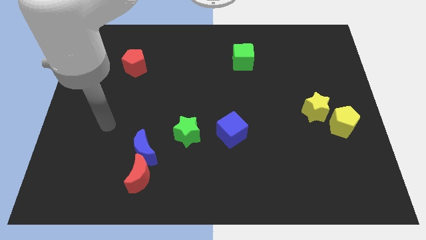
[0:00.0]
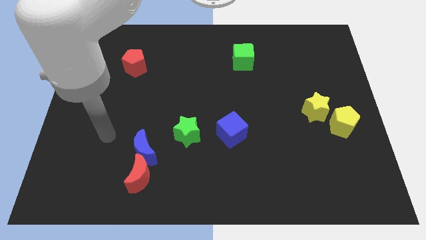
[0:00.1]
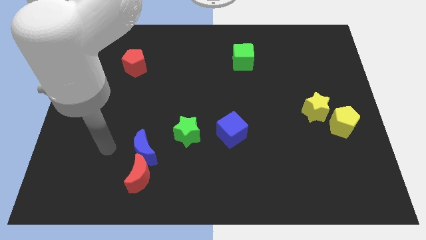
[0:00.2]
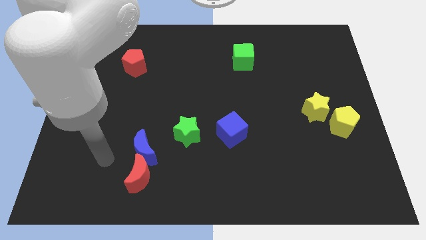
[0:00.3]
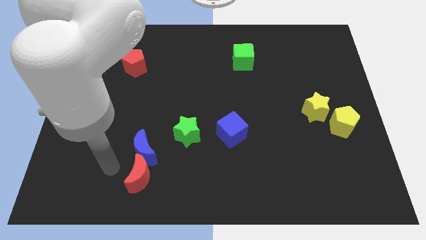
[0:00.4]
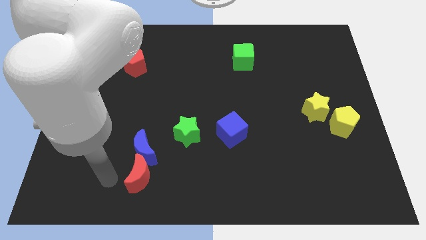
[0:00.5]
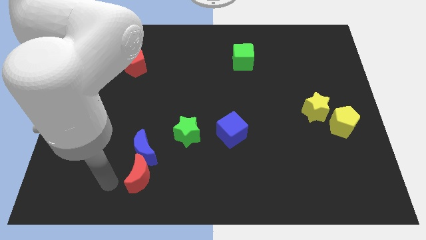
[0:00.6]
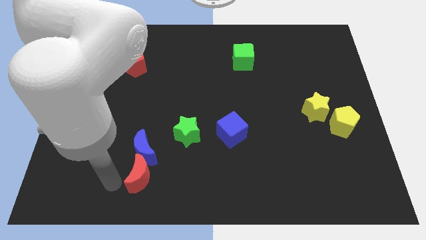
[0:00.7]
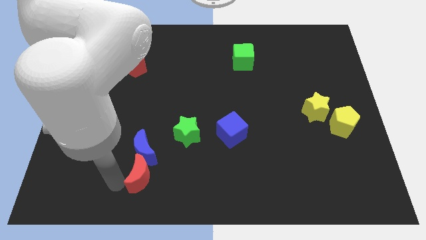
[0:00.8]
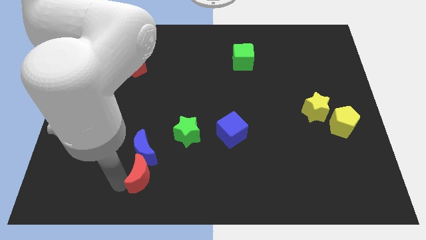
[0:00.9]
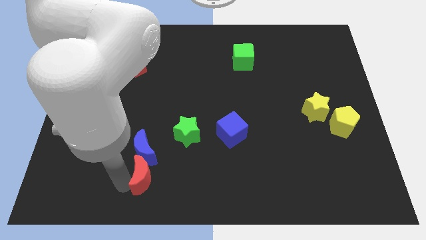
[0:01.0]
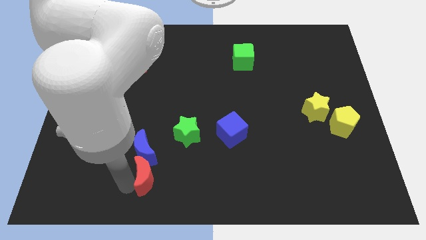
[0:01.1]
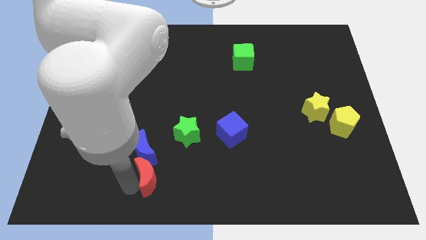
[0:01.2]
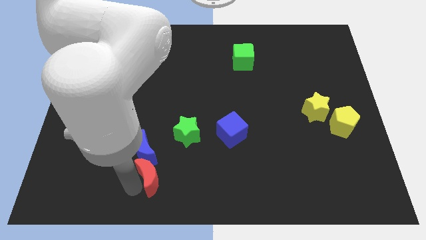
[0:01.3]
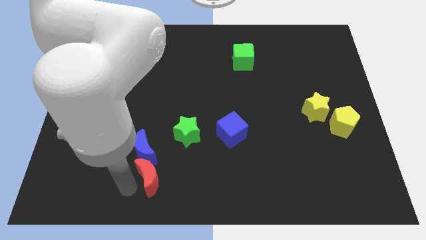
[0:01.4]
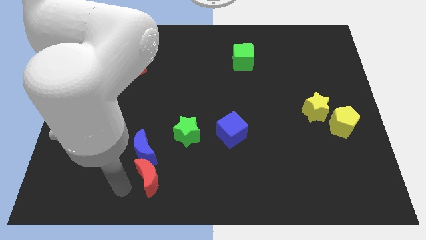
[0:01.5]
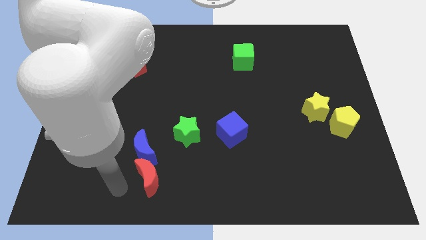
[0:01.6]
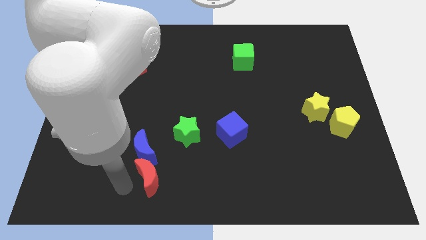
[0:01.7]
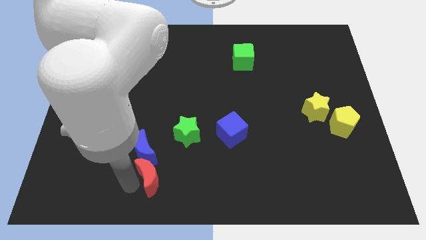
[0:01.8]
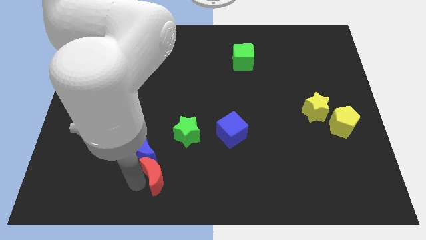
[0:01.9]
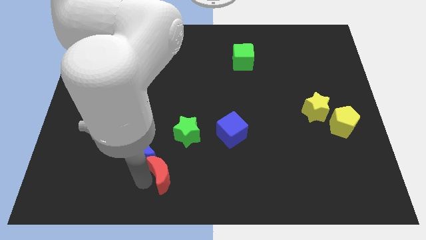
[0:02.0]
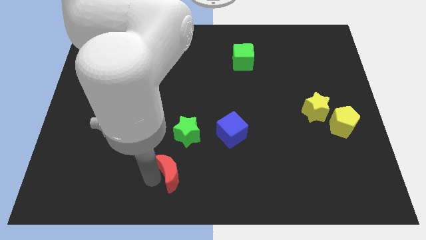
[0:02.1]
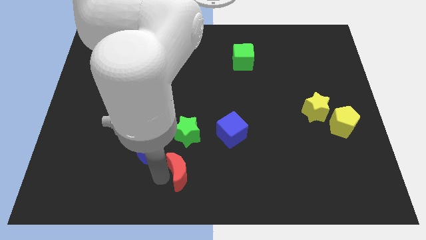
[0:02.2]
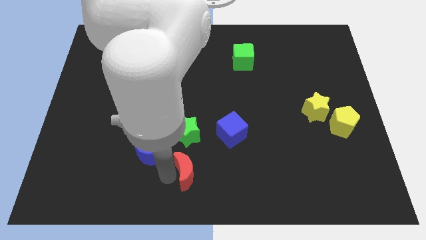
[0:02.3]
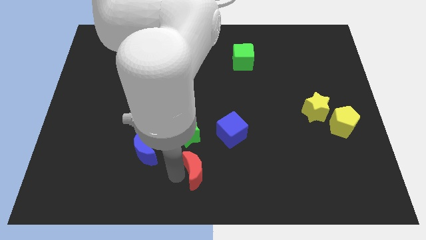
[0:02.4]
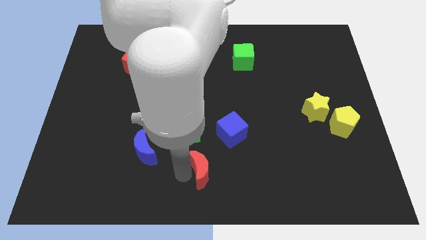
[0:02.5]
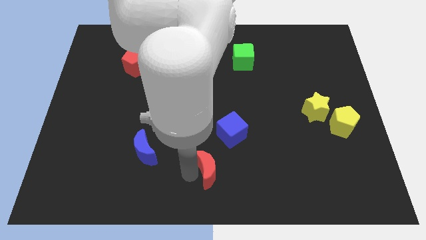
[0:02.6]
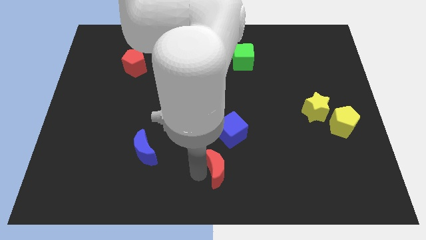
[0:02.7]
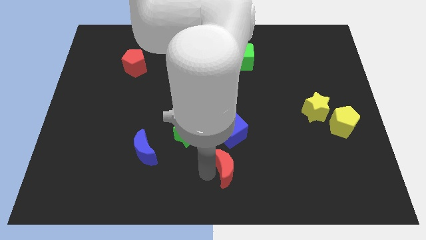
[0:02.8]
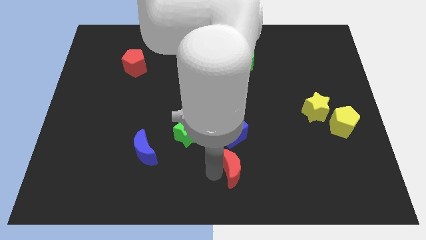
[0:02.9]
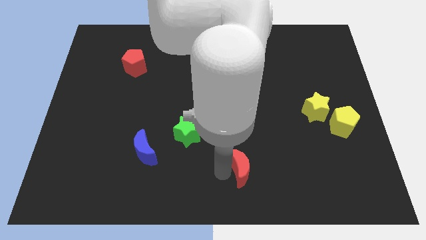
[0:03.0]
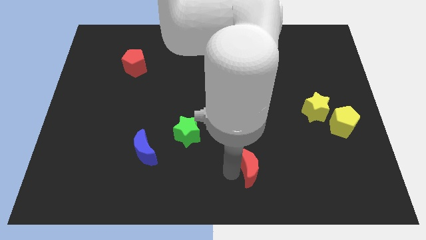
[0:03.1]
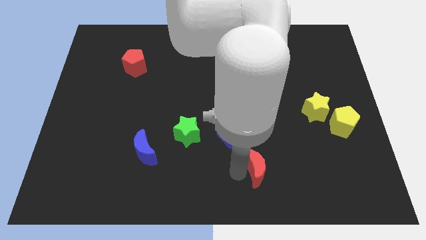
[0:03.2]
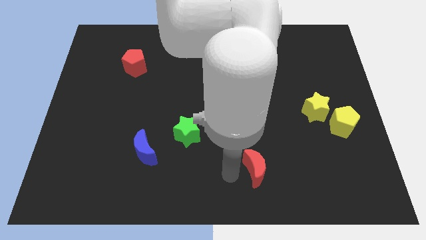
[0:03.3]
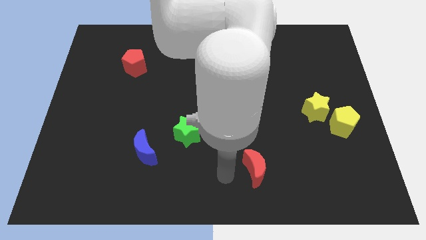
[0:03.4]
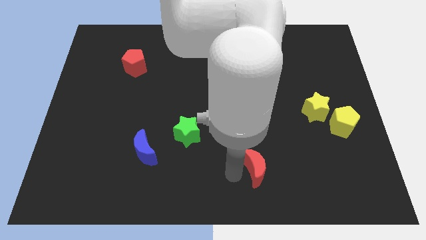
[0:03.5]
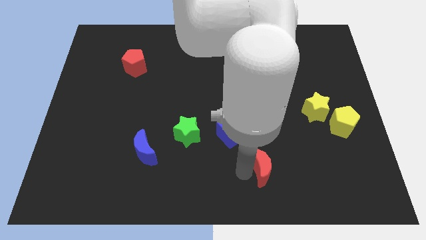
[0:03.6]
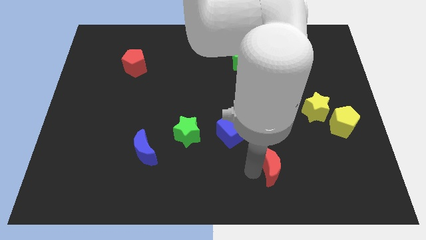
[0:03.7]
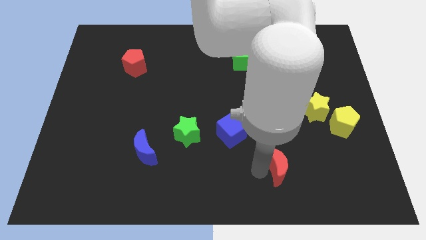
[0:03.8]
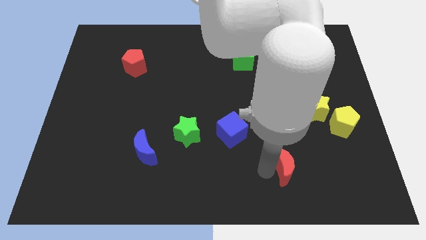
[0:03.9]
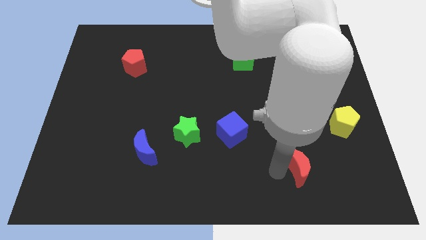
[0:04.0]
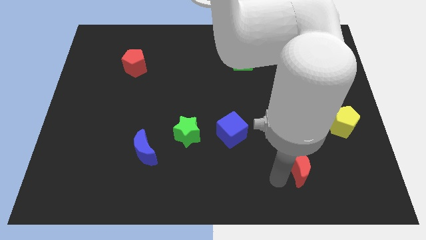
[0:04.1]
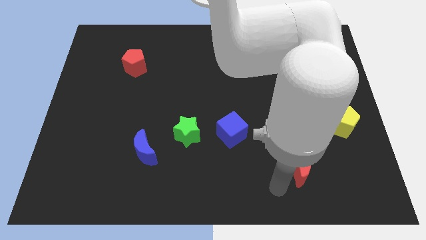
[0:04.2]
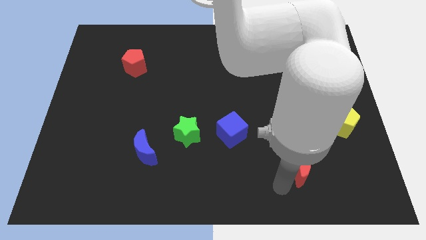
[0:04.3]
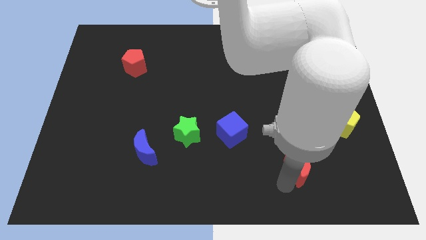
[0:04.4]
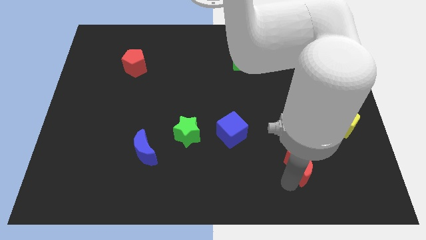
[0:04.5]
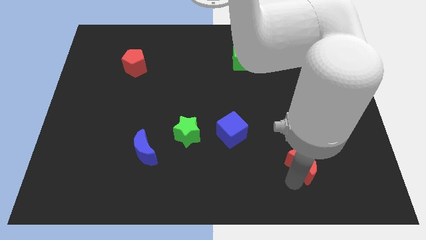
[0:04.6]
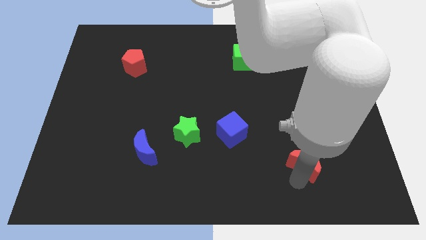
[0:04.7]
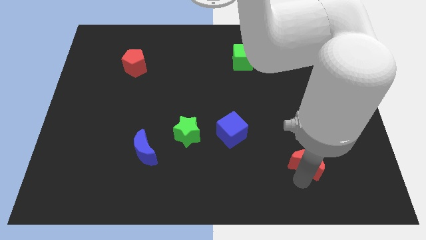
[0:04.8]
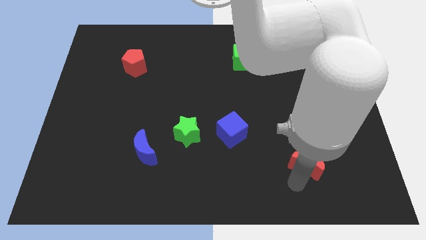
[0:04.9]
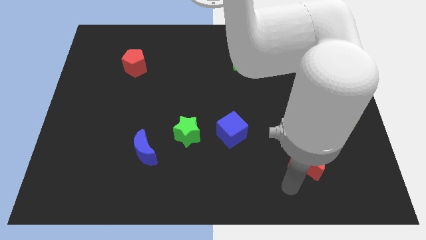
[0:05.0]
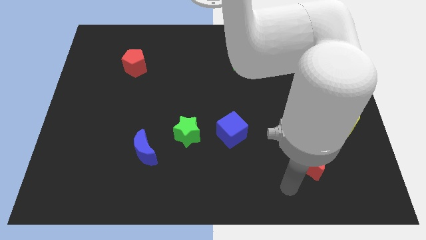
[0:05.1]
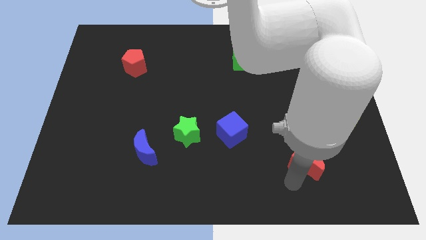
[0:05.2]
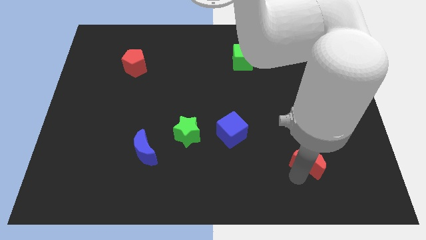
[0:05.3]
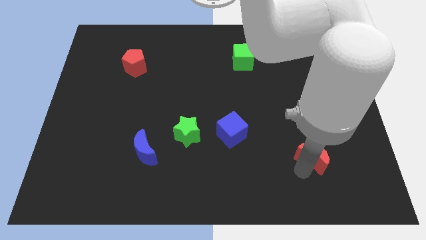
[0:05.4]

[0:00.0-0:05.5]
move the red moon to the bottom left side of the yellow pentagon

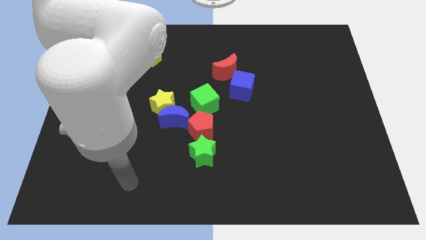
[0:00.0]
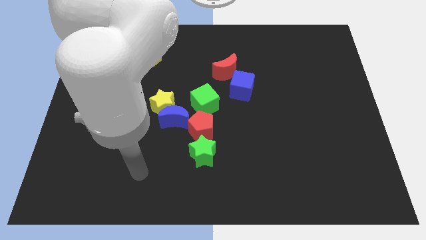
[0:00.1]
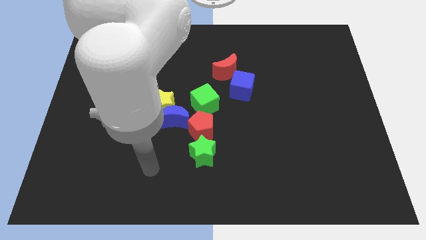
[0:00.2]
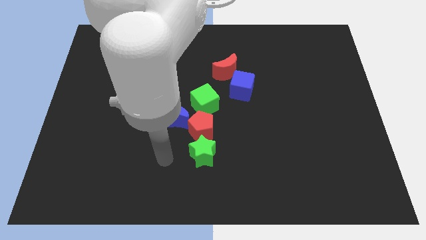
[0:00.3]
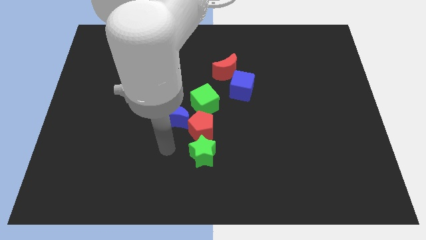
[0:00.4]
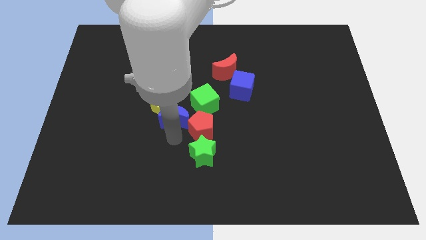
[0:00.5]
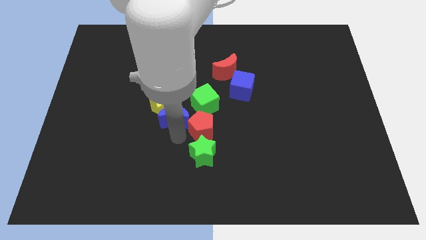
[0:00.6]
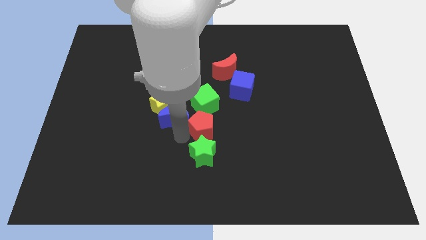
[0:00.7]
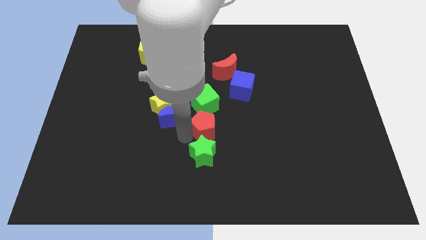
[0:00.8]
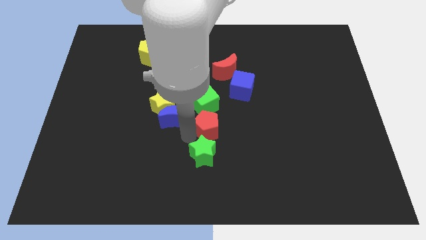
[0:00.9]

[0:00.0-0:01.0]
slide the red pentagon to the bottom right of the green cube

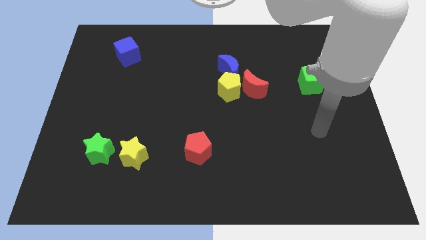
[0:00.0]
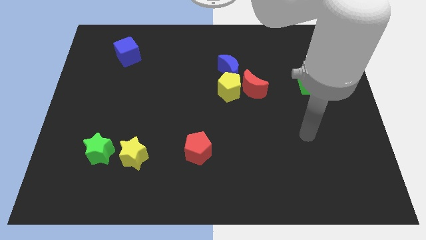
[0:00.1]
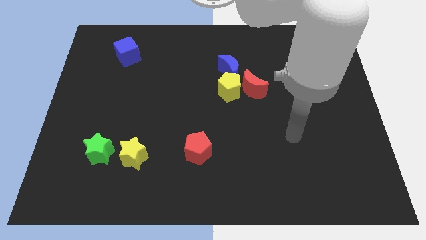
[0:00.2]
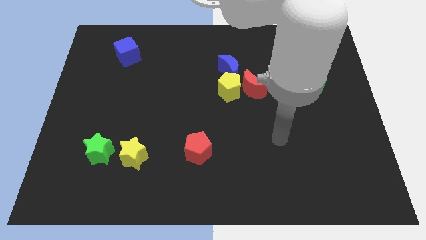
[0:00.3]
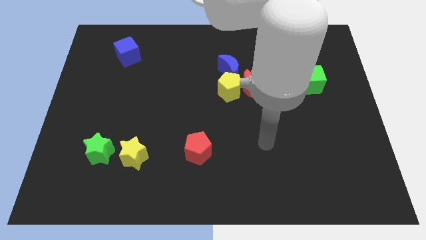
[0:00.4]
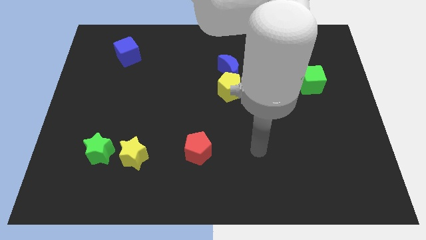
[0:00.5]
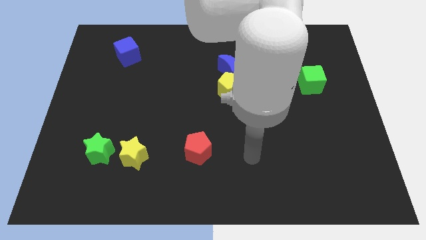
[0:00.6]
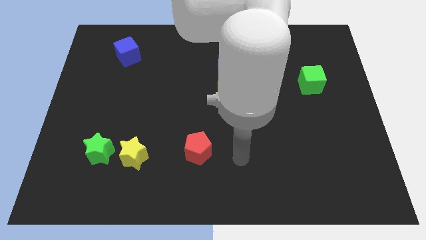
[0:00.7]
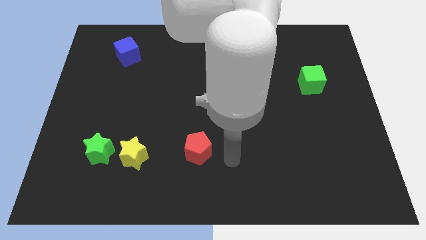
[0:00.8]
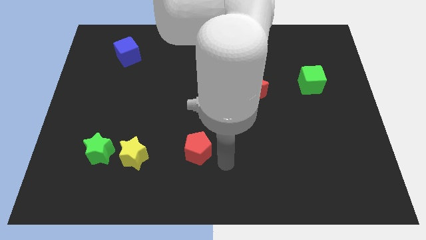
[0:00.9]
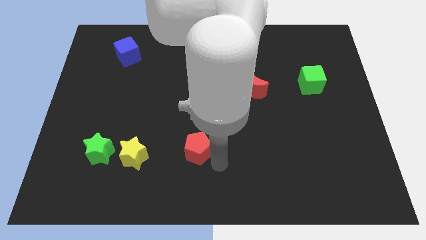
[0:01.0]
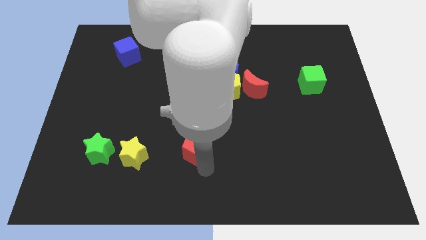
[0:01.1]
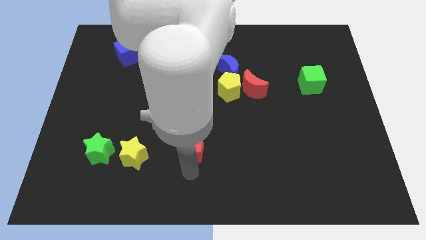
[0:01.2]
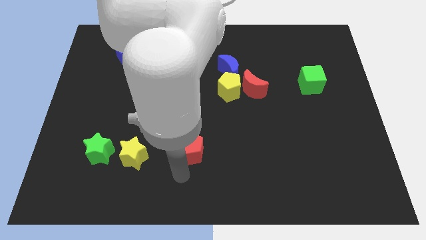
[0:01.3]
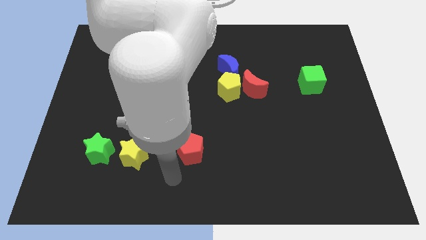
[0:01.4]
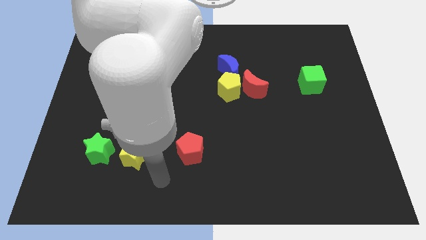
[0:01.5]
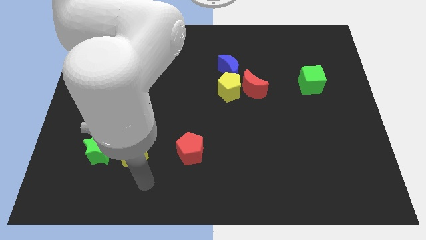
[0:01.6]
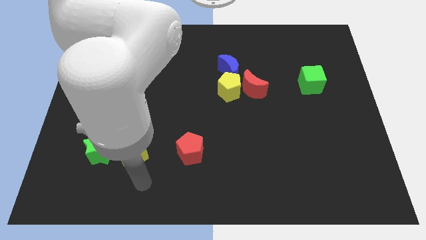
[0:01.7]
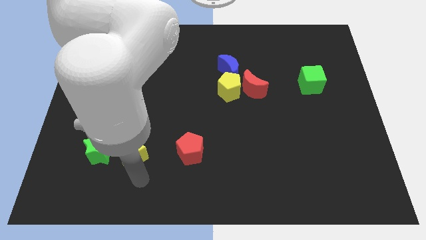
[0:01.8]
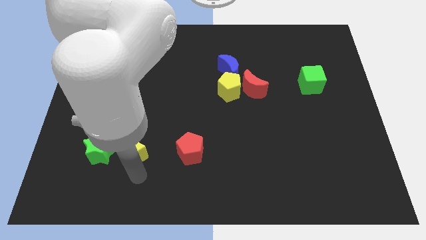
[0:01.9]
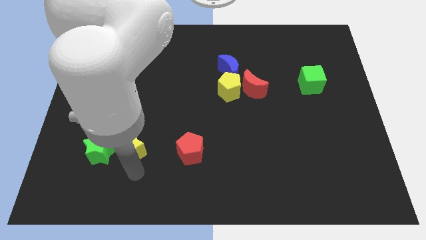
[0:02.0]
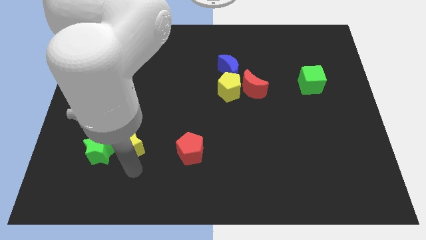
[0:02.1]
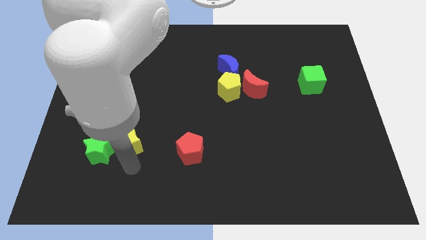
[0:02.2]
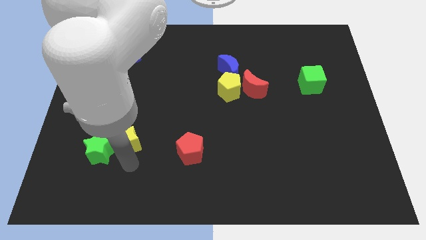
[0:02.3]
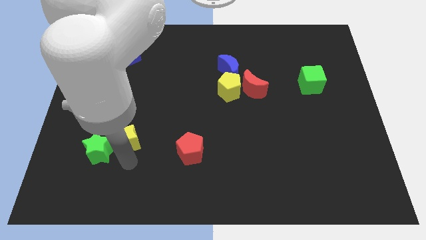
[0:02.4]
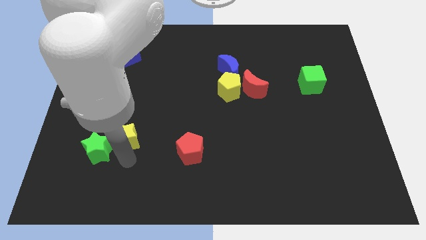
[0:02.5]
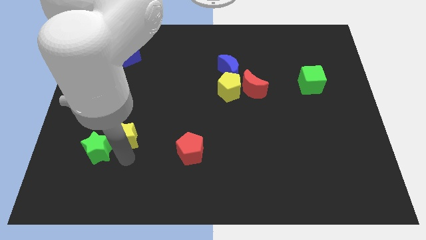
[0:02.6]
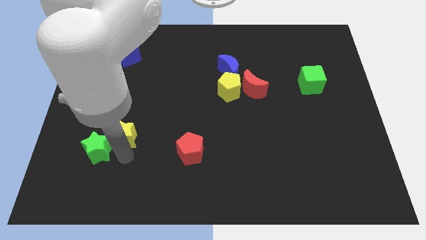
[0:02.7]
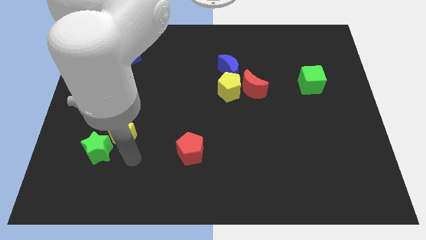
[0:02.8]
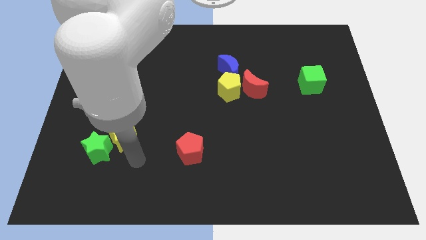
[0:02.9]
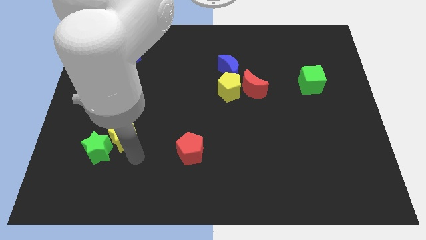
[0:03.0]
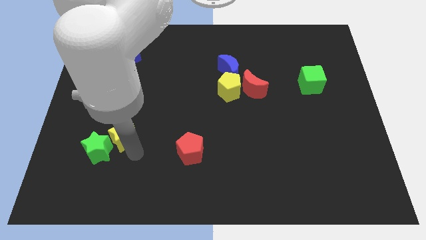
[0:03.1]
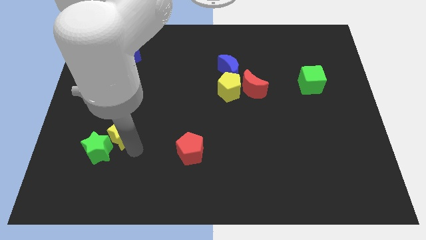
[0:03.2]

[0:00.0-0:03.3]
put the yellow star to the top of the green star
